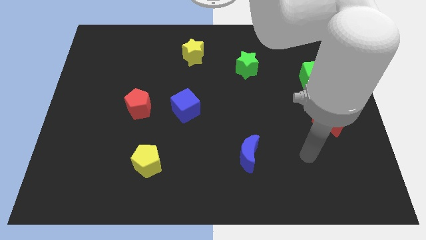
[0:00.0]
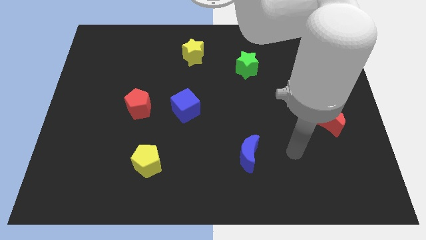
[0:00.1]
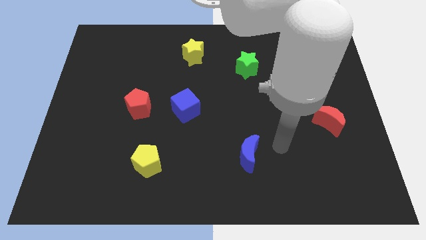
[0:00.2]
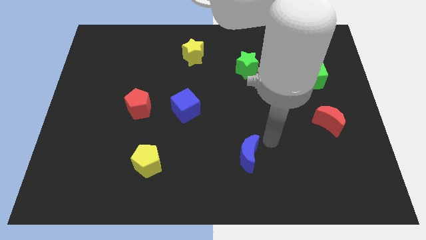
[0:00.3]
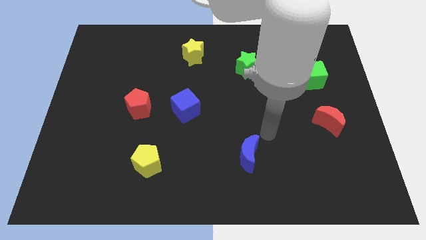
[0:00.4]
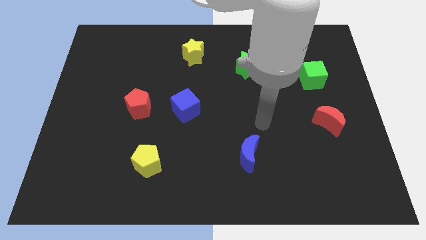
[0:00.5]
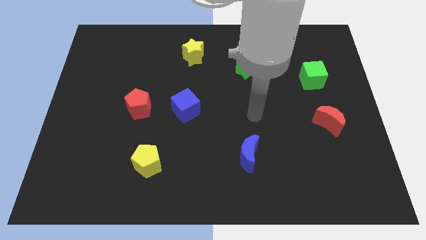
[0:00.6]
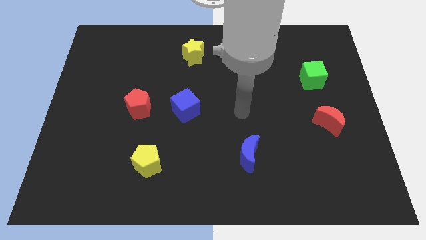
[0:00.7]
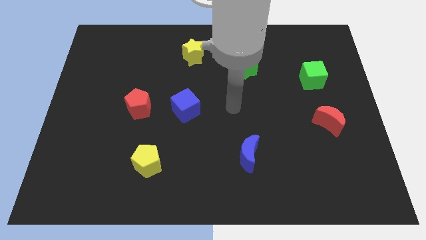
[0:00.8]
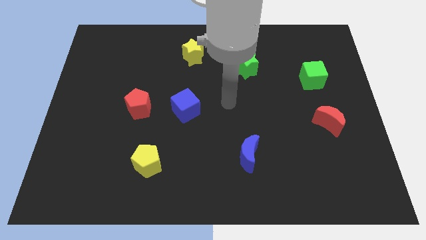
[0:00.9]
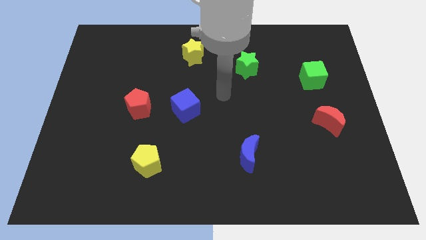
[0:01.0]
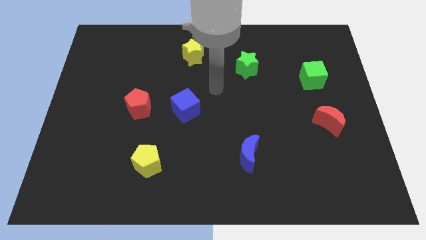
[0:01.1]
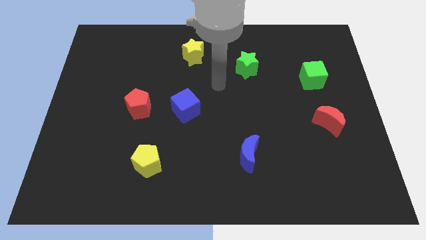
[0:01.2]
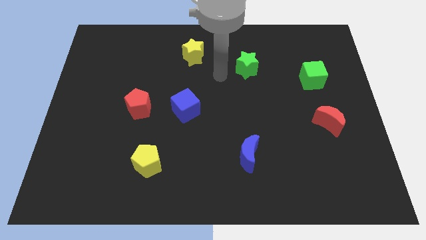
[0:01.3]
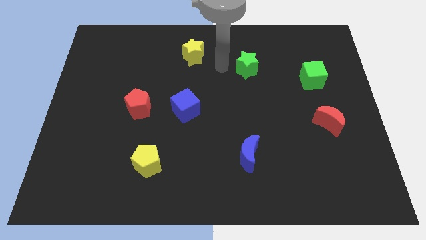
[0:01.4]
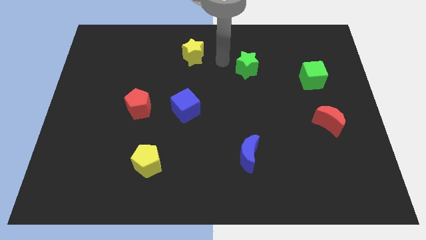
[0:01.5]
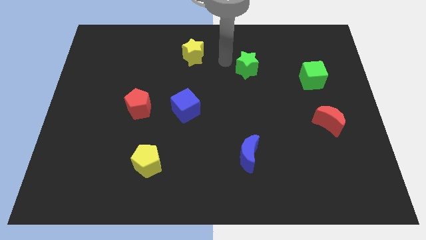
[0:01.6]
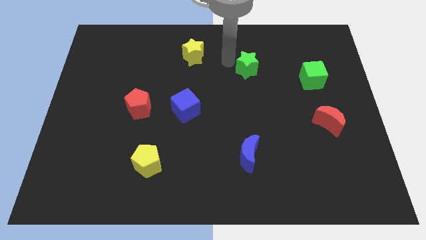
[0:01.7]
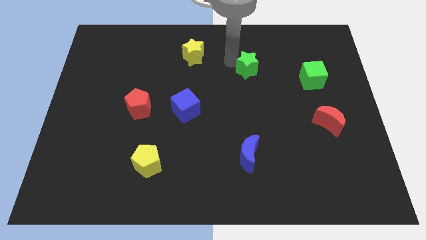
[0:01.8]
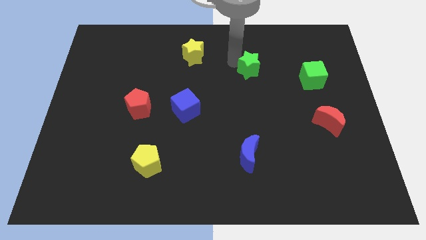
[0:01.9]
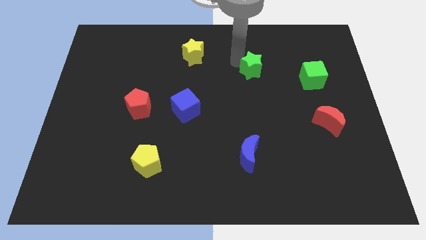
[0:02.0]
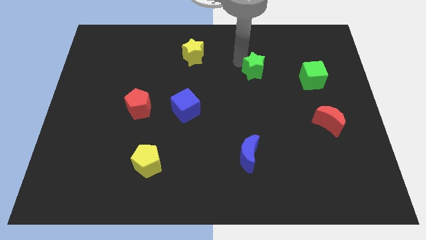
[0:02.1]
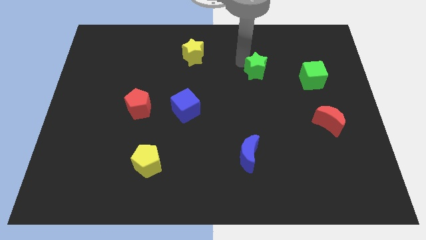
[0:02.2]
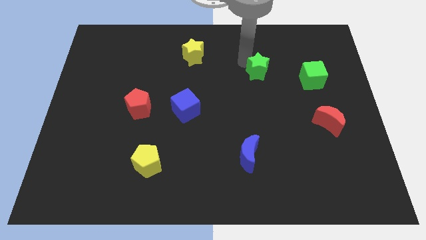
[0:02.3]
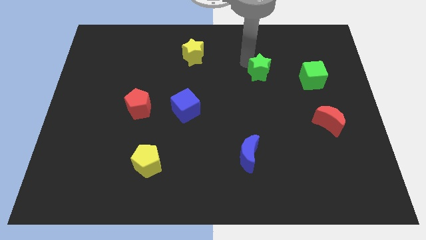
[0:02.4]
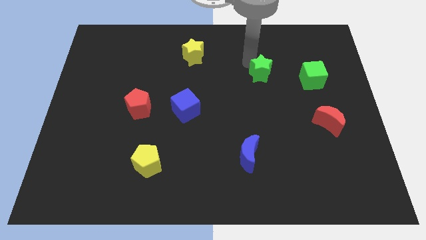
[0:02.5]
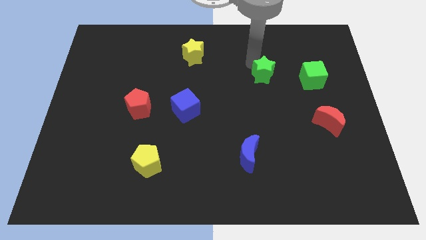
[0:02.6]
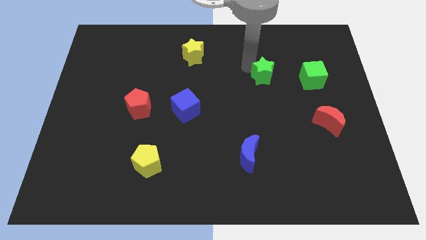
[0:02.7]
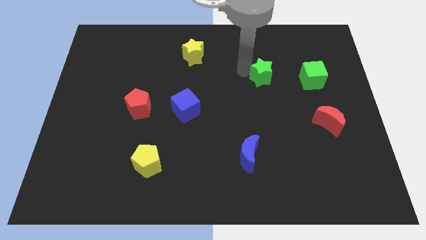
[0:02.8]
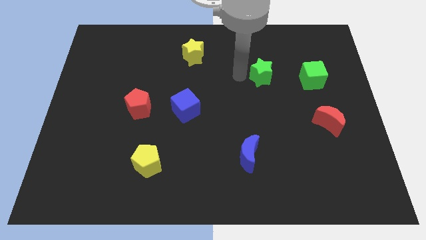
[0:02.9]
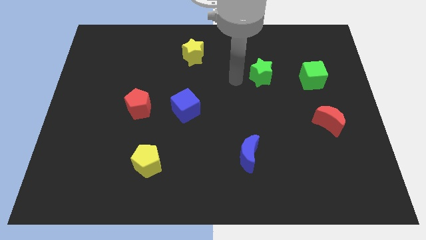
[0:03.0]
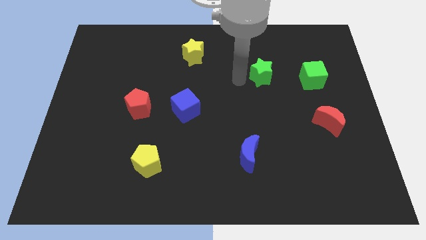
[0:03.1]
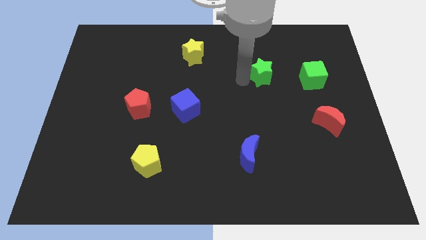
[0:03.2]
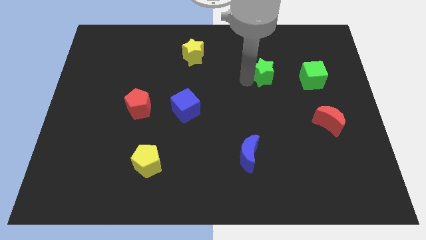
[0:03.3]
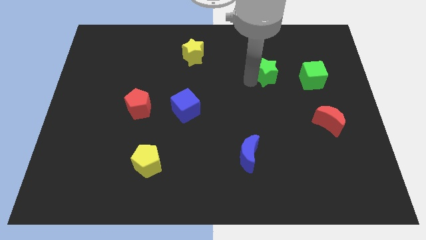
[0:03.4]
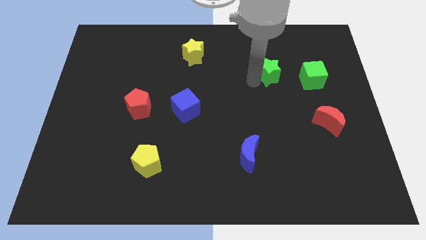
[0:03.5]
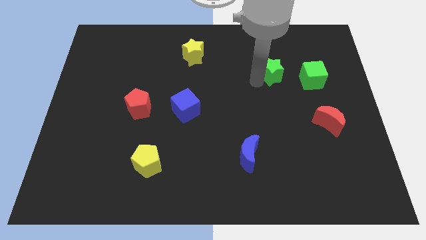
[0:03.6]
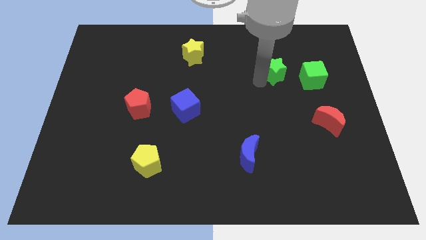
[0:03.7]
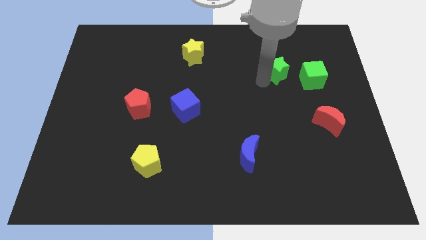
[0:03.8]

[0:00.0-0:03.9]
push the green star right a little bit

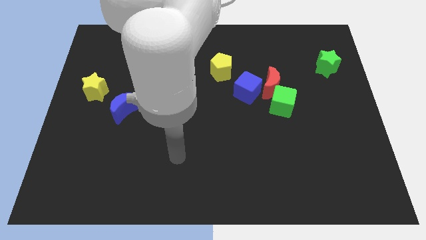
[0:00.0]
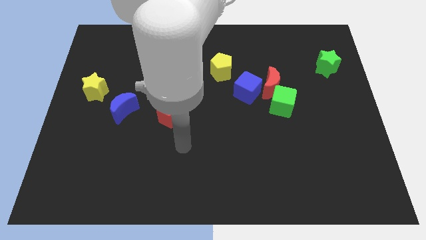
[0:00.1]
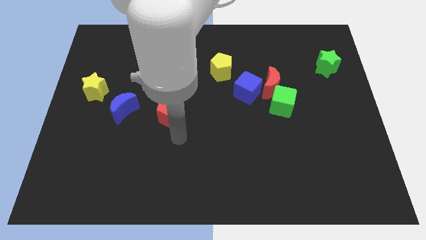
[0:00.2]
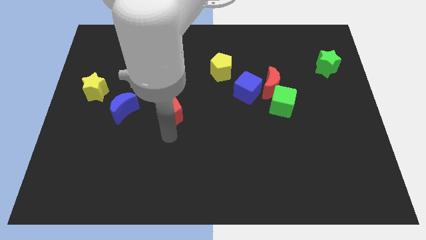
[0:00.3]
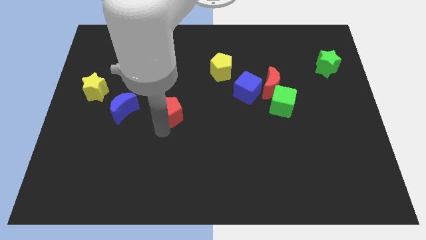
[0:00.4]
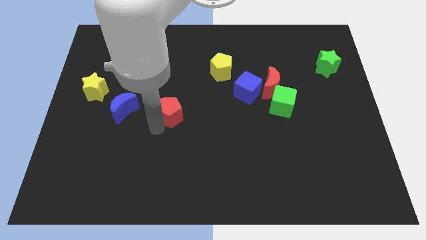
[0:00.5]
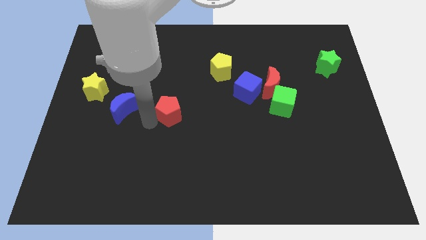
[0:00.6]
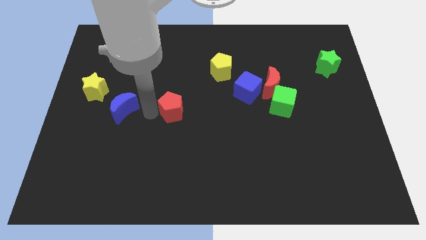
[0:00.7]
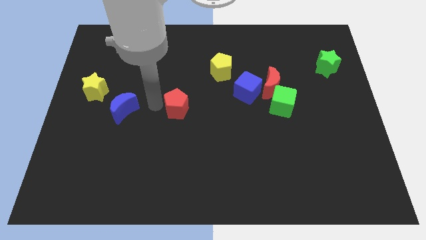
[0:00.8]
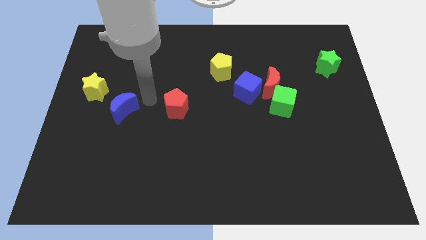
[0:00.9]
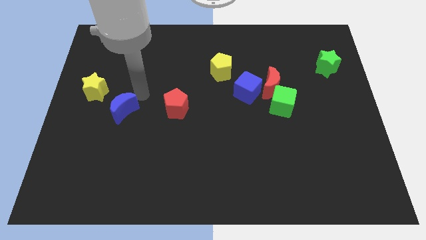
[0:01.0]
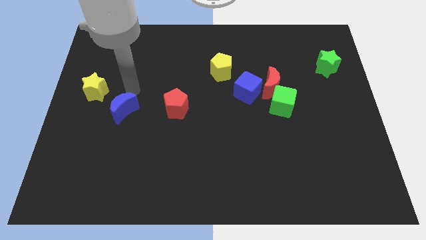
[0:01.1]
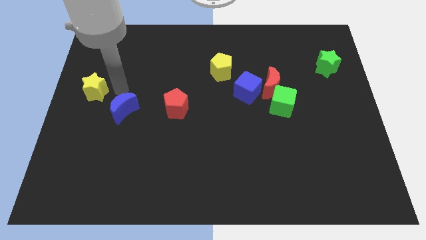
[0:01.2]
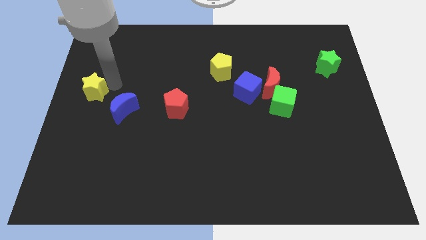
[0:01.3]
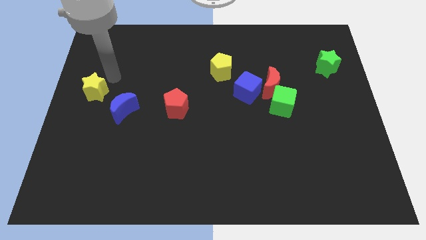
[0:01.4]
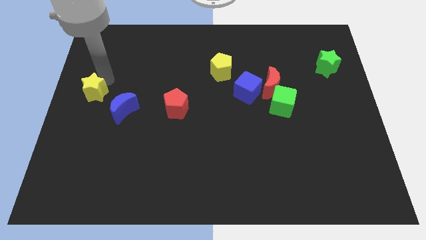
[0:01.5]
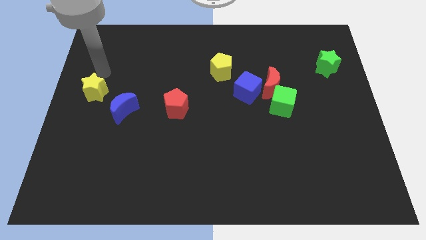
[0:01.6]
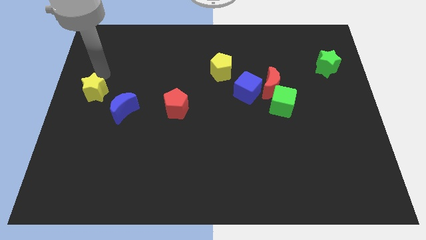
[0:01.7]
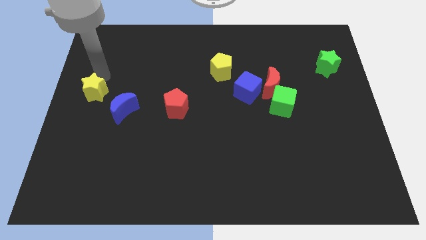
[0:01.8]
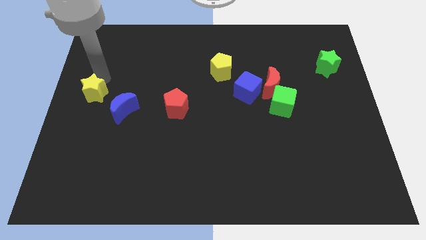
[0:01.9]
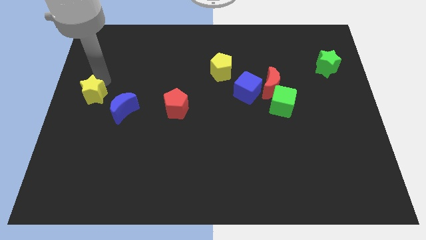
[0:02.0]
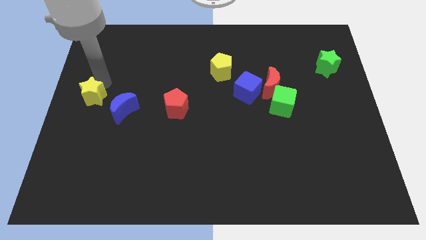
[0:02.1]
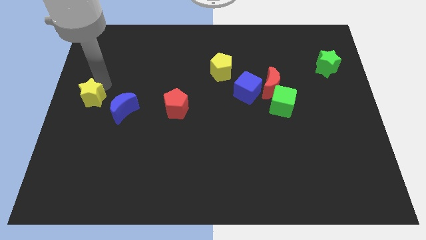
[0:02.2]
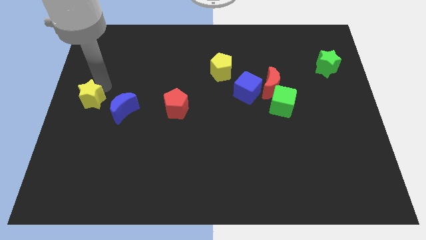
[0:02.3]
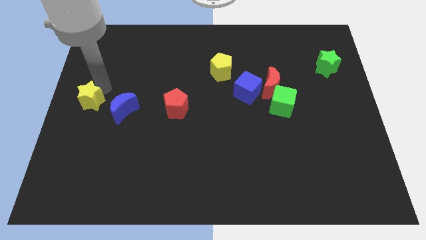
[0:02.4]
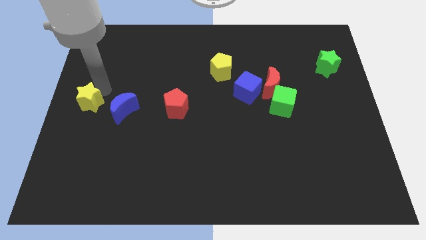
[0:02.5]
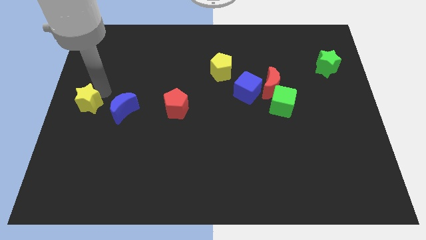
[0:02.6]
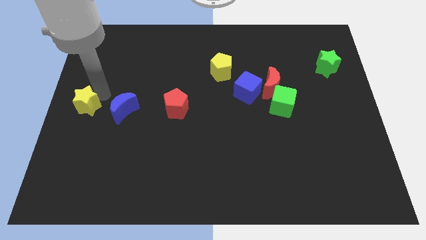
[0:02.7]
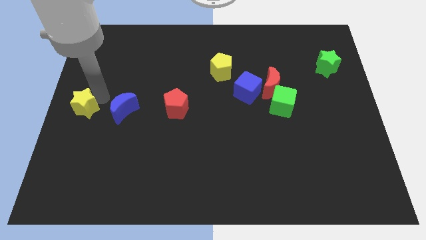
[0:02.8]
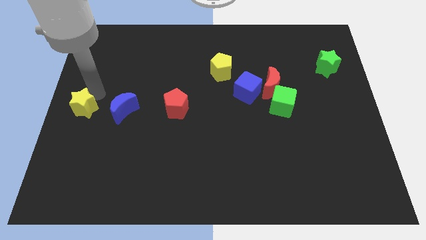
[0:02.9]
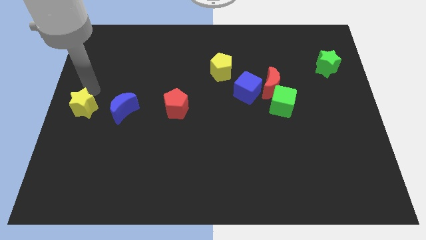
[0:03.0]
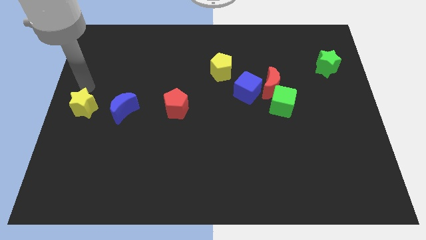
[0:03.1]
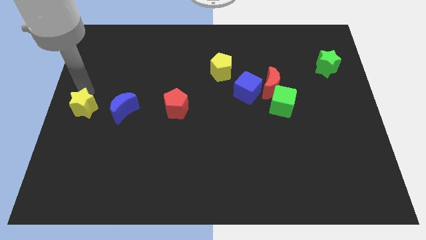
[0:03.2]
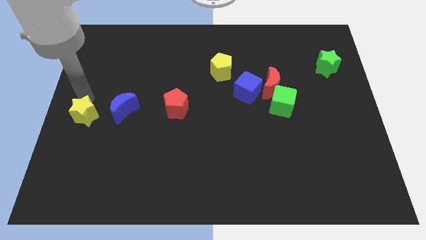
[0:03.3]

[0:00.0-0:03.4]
slide the yellow star downwards somewhat

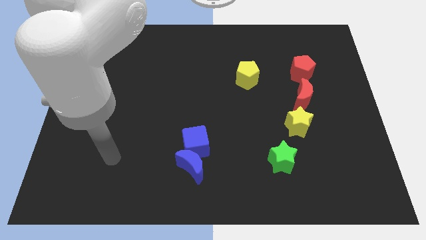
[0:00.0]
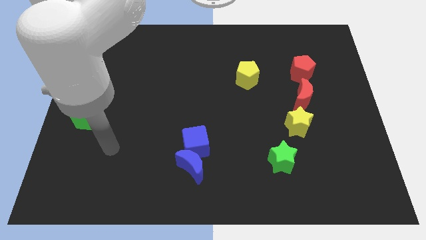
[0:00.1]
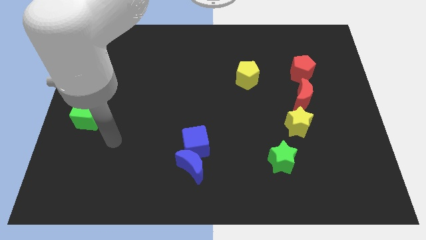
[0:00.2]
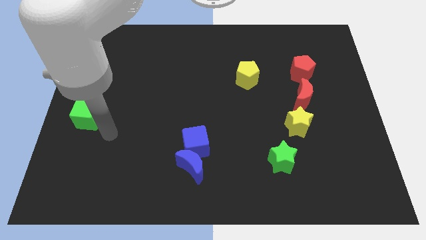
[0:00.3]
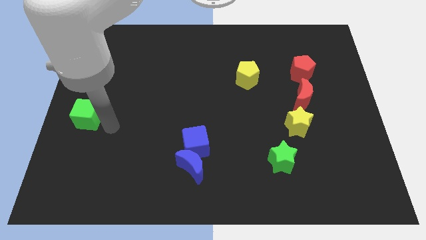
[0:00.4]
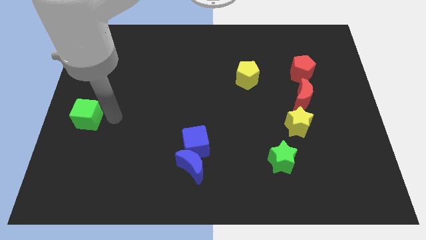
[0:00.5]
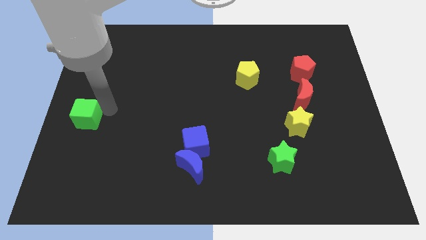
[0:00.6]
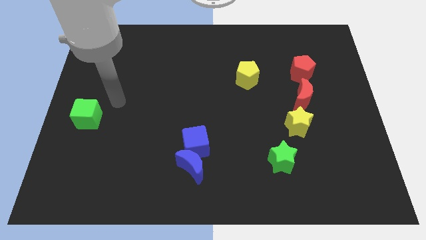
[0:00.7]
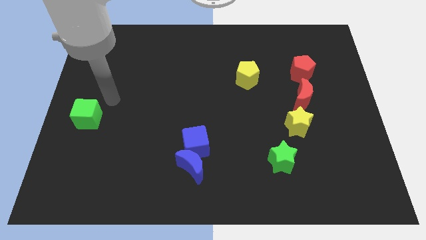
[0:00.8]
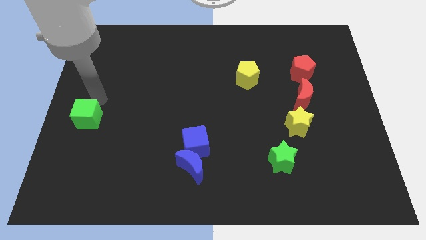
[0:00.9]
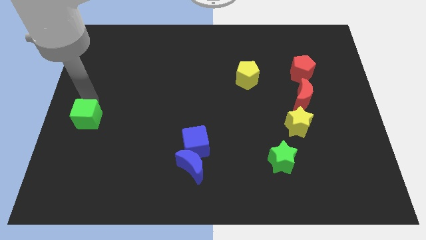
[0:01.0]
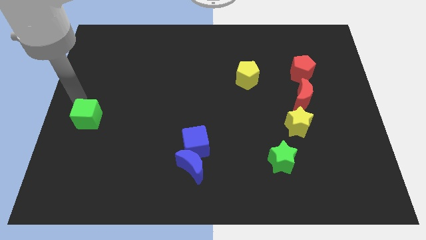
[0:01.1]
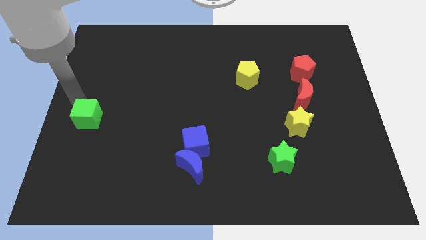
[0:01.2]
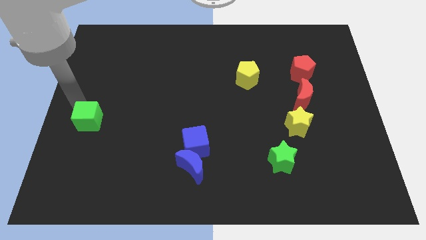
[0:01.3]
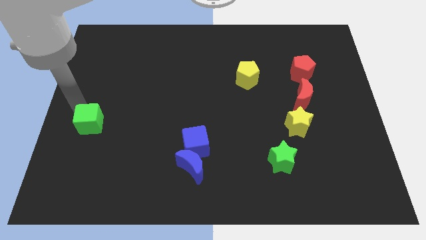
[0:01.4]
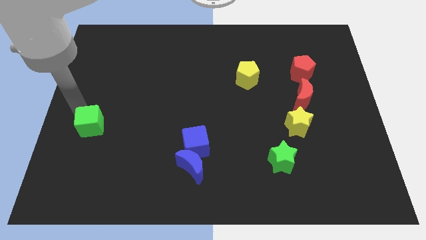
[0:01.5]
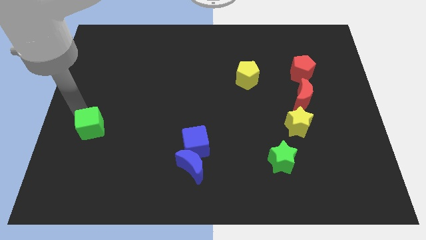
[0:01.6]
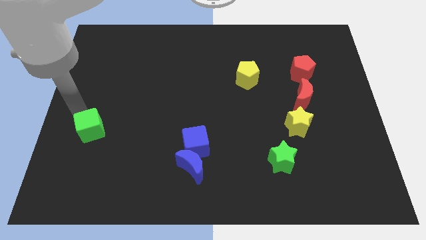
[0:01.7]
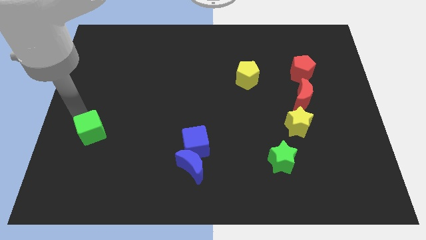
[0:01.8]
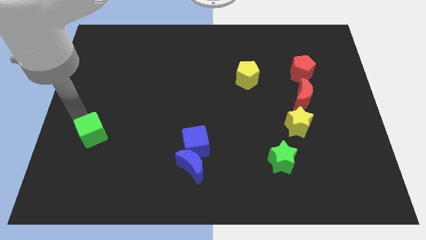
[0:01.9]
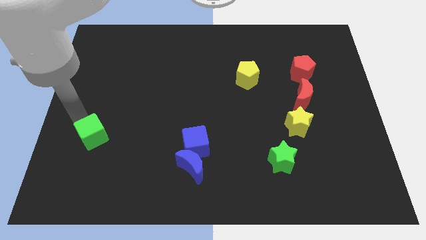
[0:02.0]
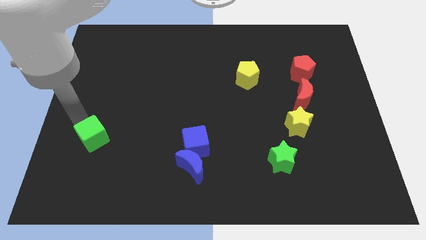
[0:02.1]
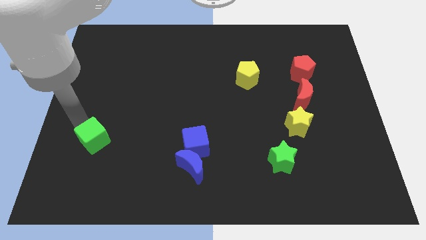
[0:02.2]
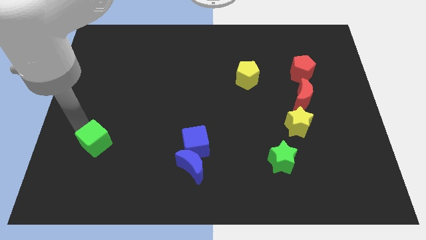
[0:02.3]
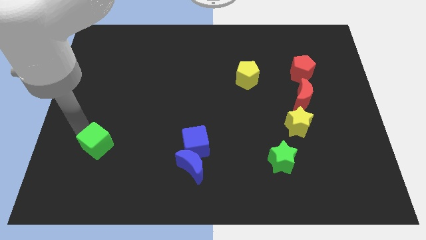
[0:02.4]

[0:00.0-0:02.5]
move the green cube a bit downwards and right diagonally
